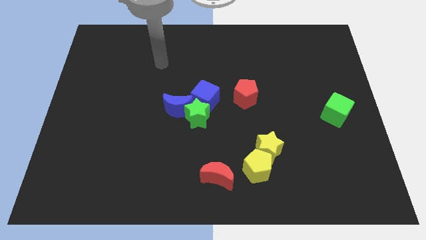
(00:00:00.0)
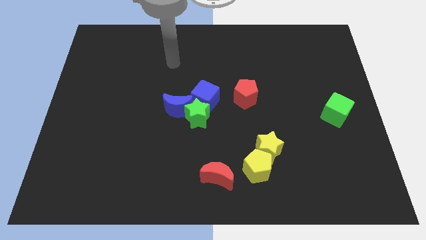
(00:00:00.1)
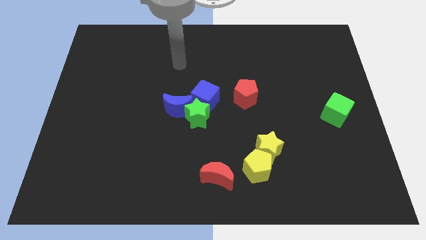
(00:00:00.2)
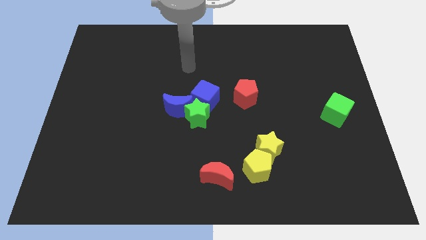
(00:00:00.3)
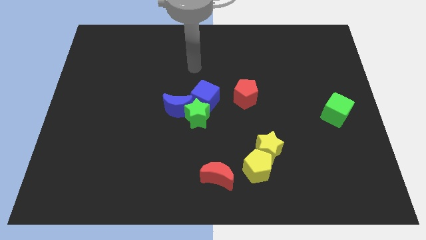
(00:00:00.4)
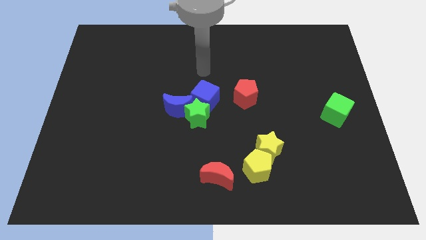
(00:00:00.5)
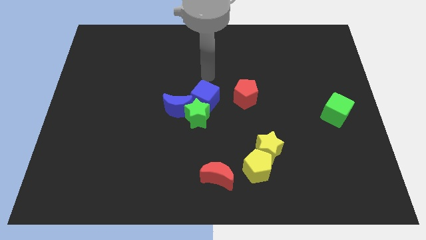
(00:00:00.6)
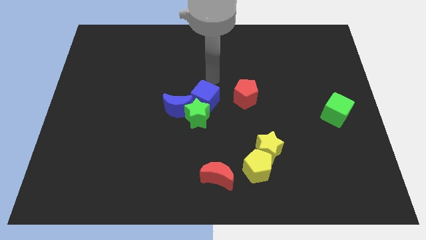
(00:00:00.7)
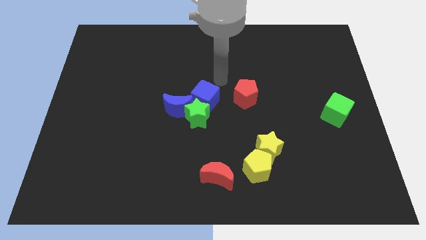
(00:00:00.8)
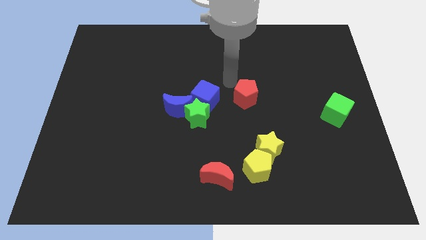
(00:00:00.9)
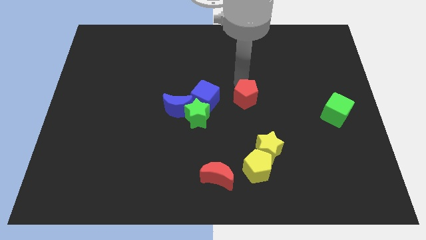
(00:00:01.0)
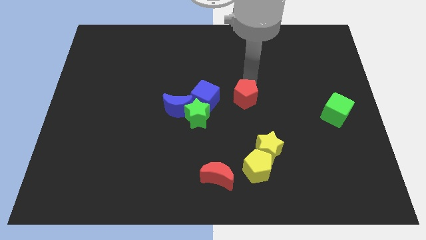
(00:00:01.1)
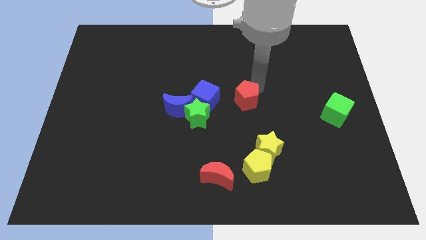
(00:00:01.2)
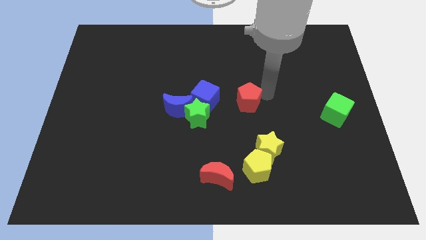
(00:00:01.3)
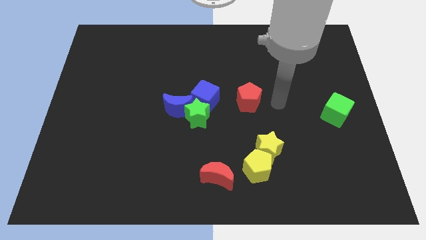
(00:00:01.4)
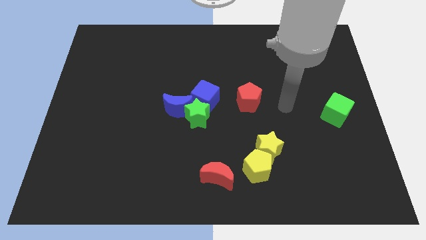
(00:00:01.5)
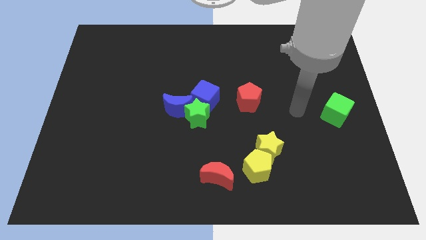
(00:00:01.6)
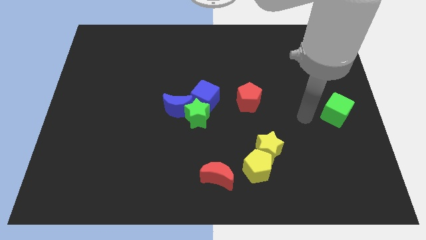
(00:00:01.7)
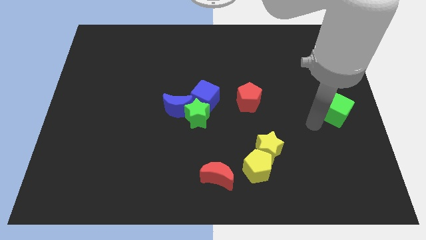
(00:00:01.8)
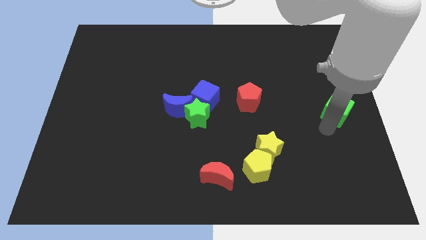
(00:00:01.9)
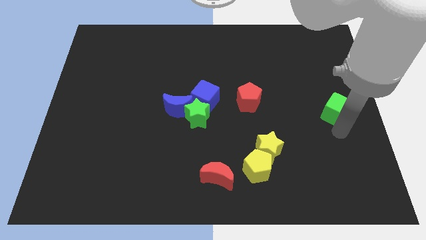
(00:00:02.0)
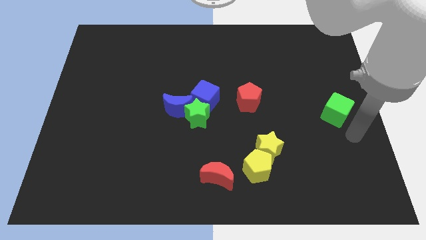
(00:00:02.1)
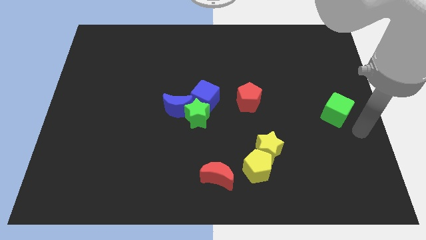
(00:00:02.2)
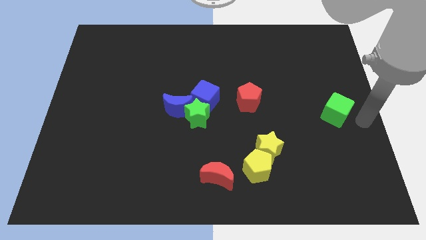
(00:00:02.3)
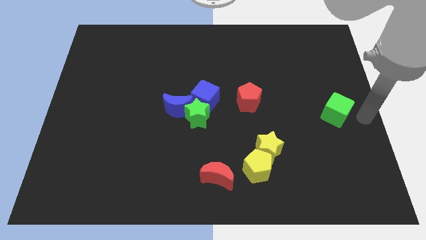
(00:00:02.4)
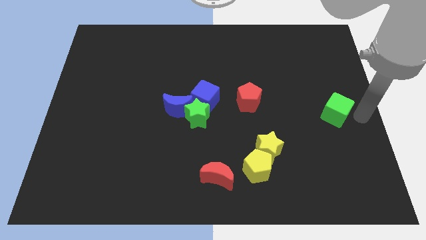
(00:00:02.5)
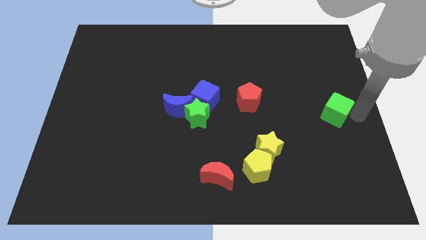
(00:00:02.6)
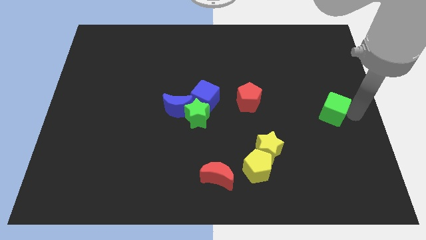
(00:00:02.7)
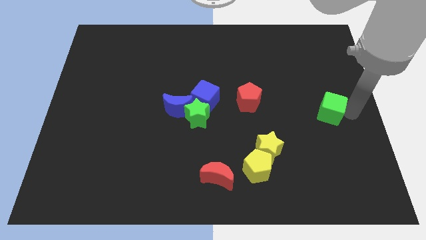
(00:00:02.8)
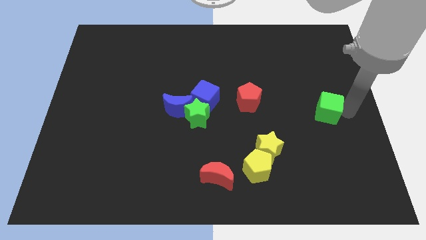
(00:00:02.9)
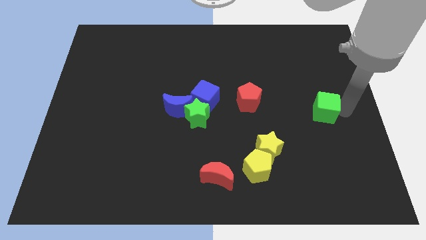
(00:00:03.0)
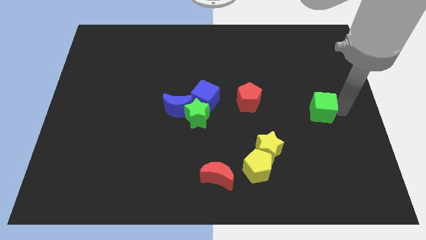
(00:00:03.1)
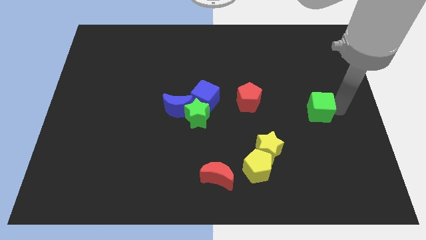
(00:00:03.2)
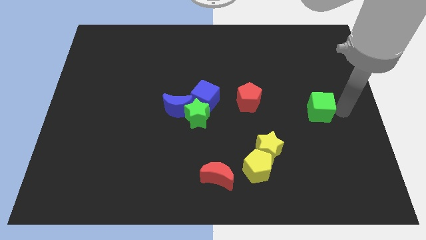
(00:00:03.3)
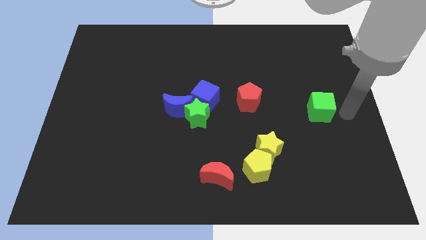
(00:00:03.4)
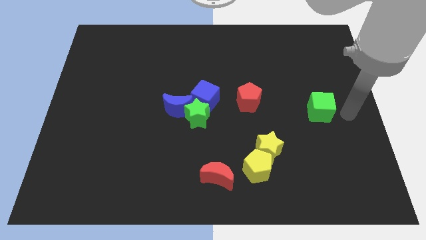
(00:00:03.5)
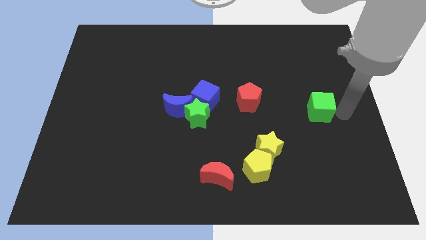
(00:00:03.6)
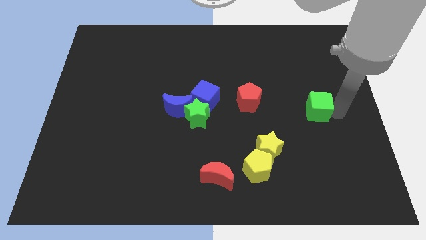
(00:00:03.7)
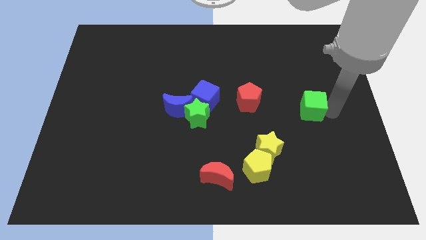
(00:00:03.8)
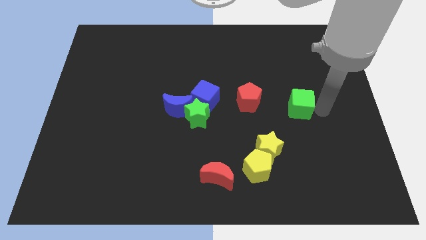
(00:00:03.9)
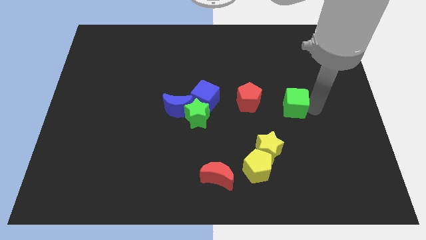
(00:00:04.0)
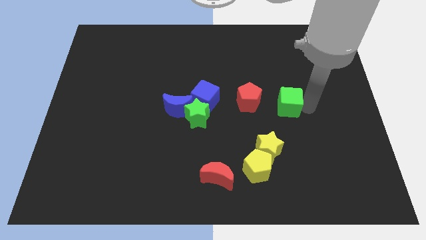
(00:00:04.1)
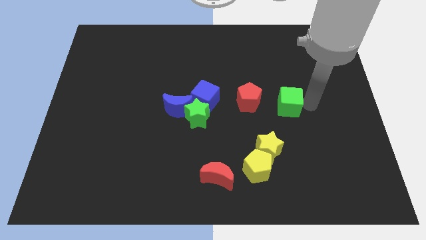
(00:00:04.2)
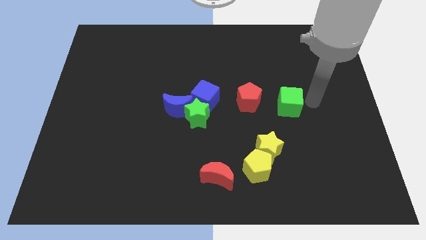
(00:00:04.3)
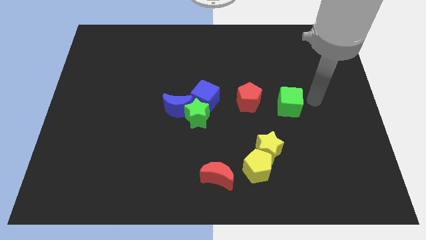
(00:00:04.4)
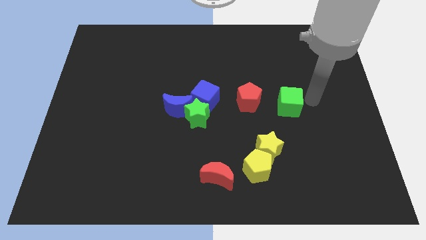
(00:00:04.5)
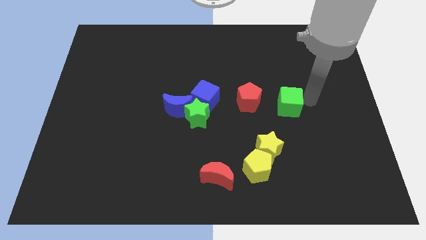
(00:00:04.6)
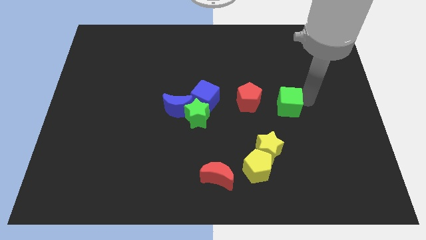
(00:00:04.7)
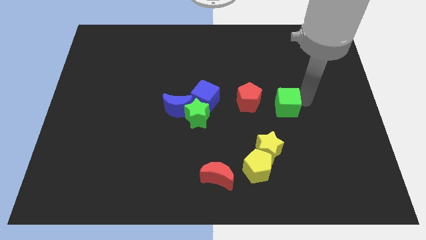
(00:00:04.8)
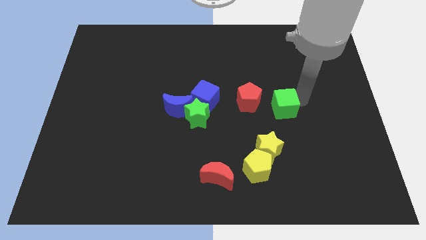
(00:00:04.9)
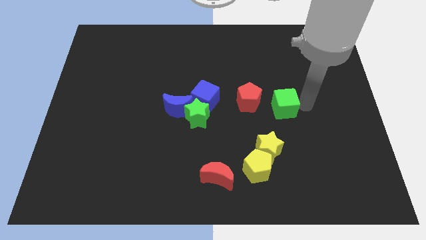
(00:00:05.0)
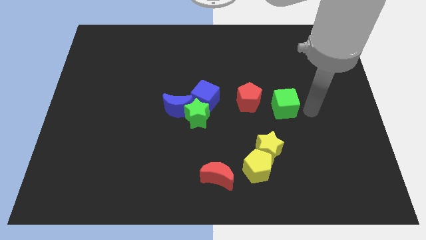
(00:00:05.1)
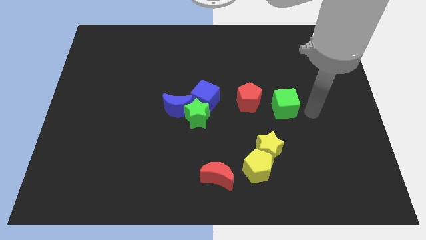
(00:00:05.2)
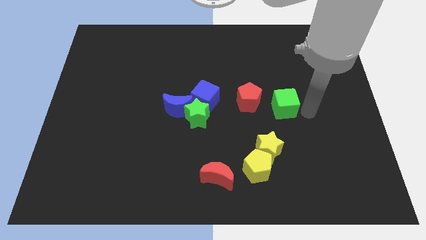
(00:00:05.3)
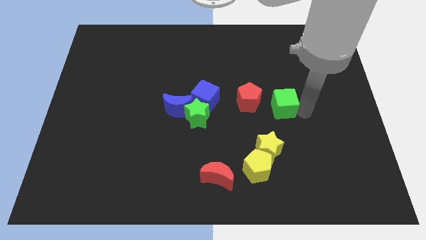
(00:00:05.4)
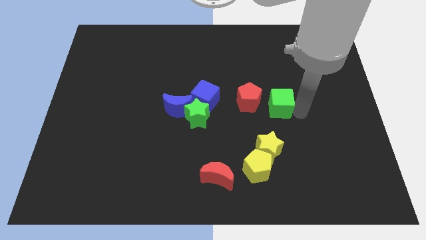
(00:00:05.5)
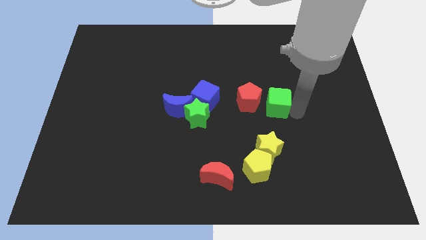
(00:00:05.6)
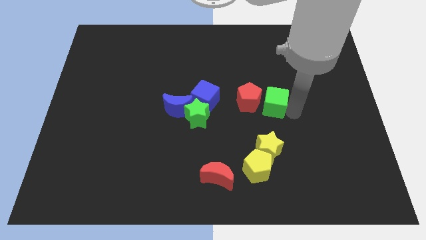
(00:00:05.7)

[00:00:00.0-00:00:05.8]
push the green cube next to the red pentagon

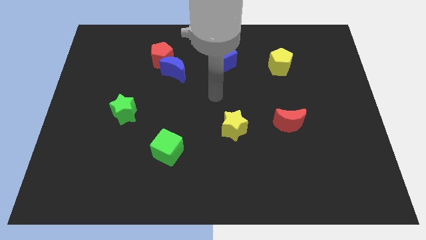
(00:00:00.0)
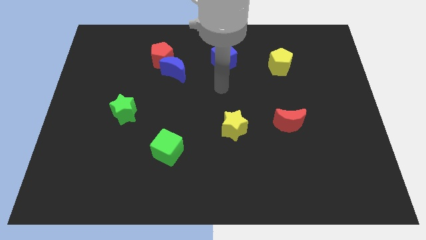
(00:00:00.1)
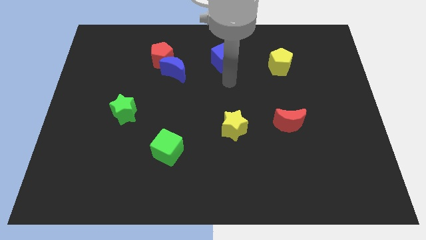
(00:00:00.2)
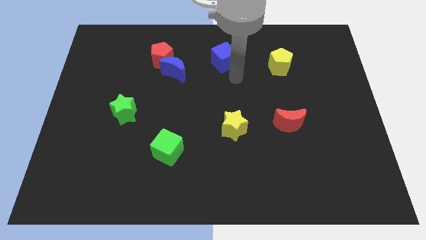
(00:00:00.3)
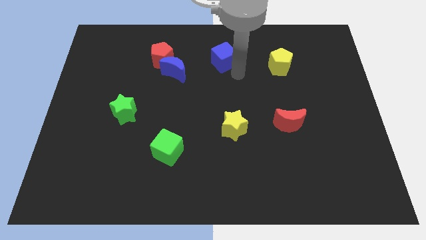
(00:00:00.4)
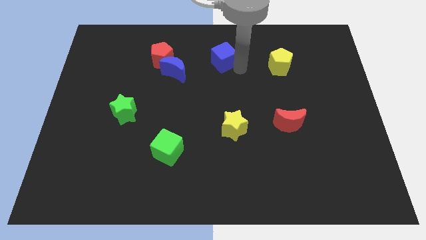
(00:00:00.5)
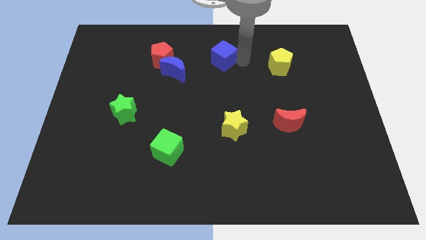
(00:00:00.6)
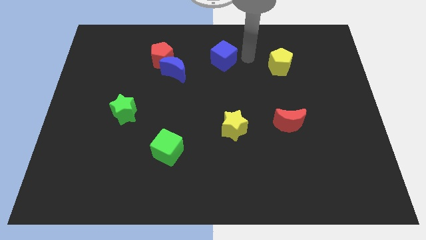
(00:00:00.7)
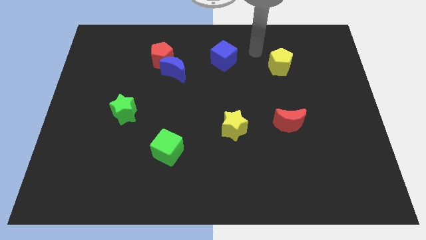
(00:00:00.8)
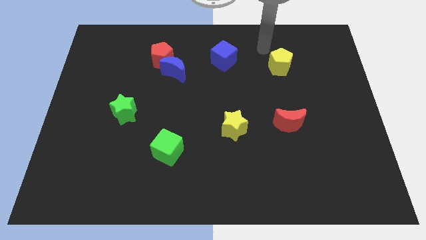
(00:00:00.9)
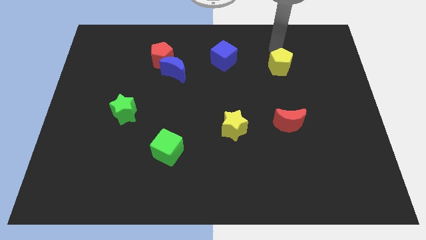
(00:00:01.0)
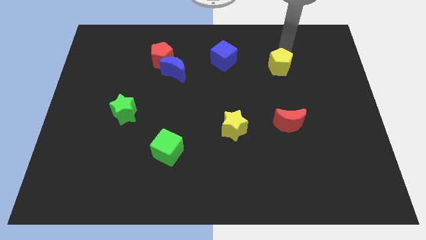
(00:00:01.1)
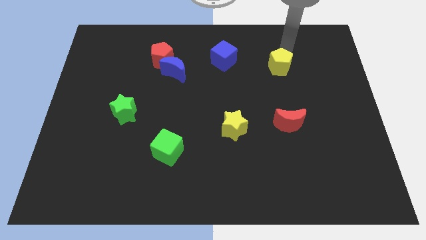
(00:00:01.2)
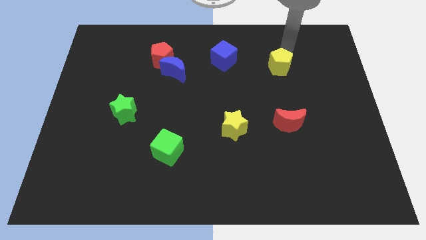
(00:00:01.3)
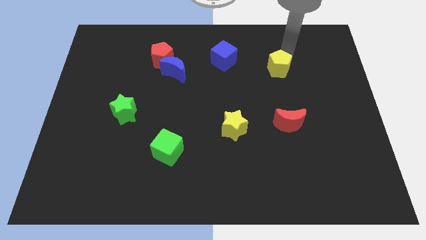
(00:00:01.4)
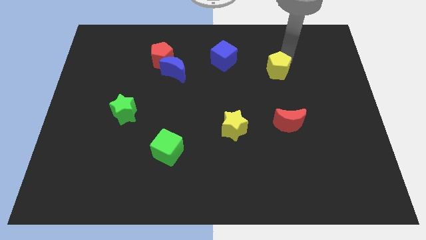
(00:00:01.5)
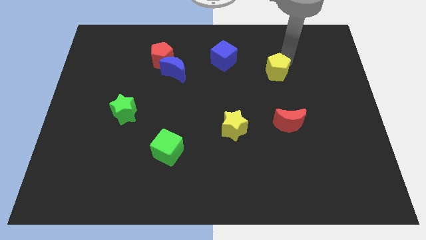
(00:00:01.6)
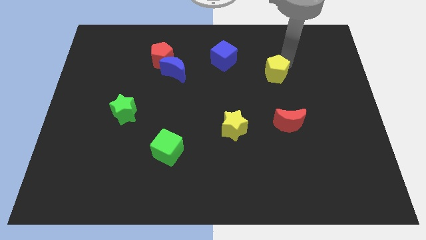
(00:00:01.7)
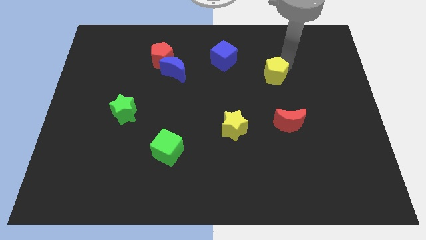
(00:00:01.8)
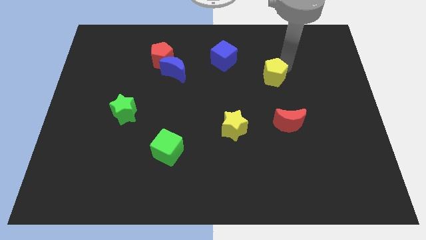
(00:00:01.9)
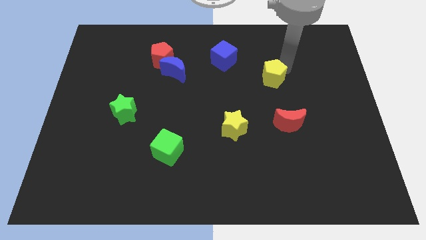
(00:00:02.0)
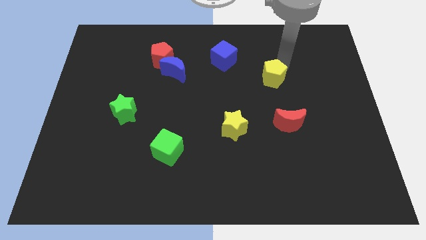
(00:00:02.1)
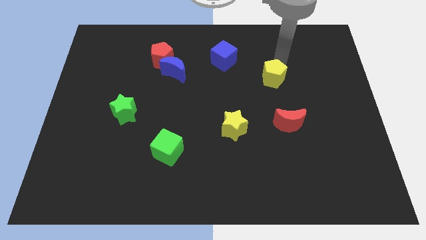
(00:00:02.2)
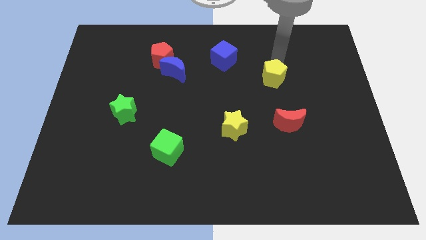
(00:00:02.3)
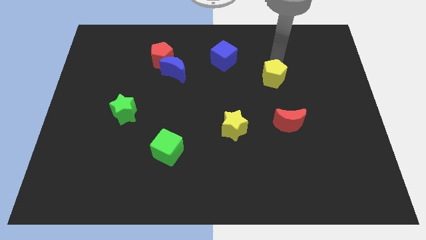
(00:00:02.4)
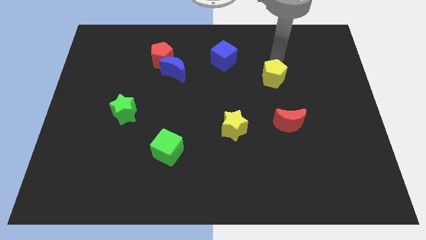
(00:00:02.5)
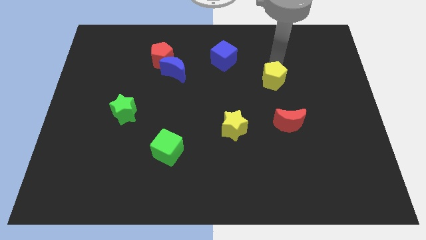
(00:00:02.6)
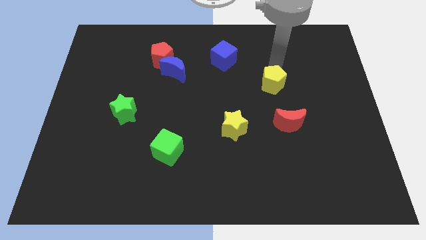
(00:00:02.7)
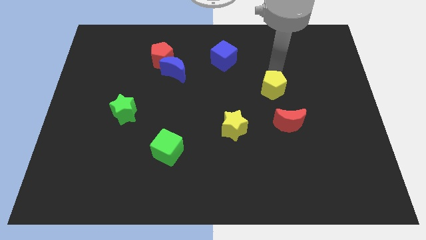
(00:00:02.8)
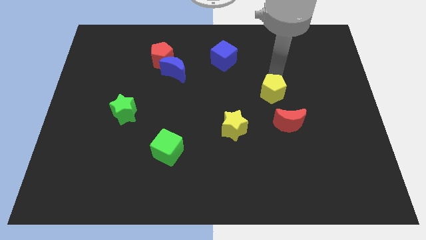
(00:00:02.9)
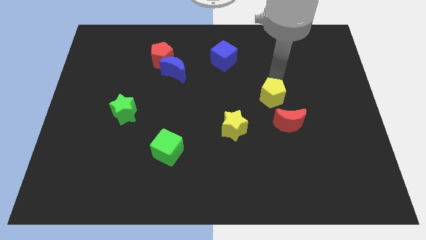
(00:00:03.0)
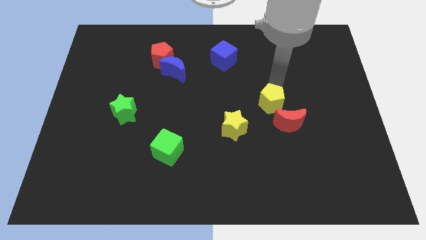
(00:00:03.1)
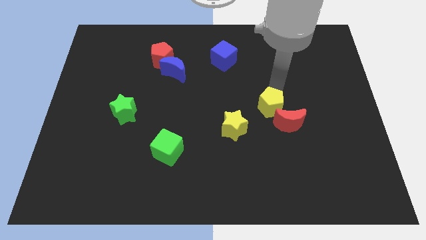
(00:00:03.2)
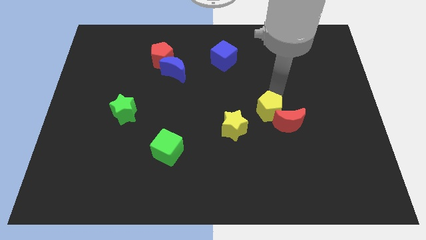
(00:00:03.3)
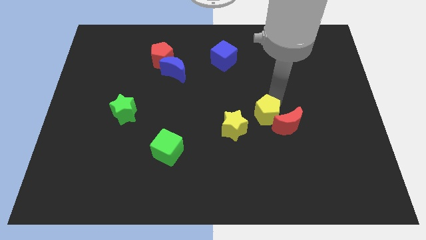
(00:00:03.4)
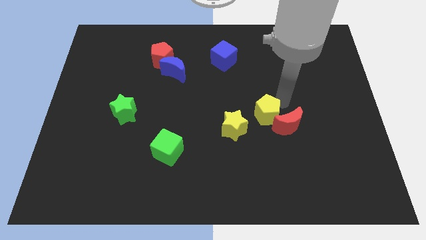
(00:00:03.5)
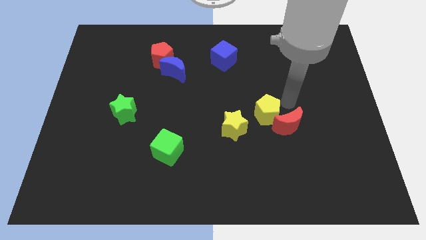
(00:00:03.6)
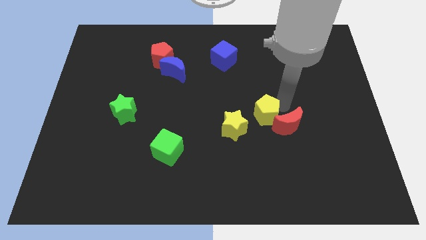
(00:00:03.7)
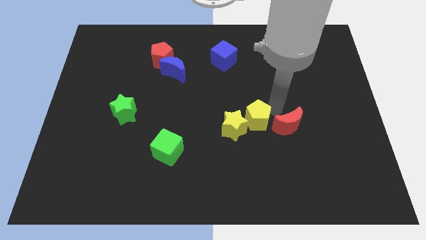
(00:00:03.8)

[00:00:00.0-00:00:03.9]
put the yellow pentagon to the yellow star
